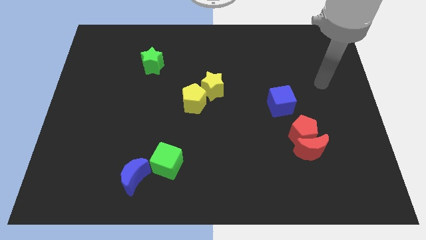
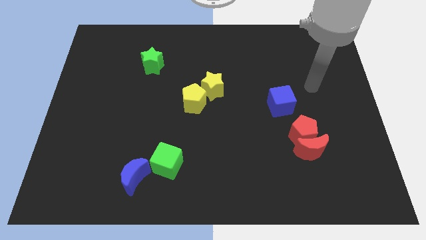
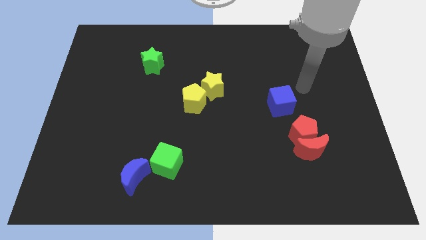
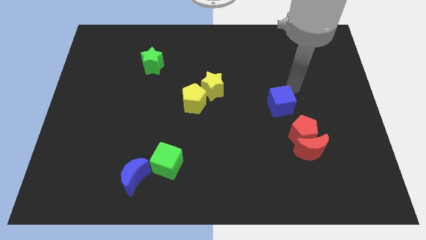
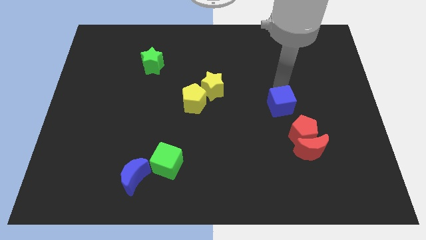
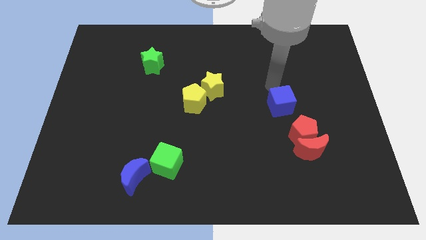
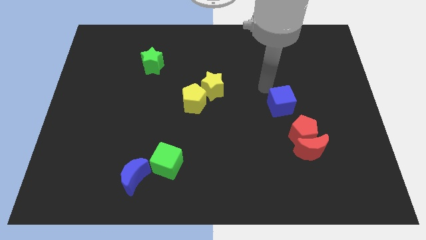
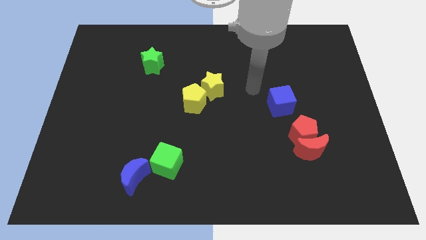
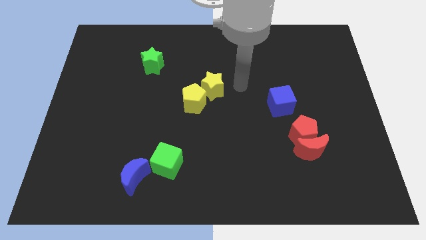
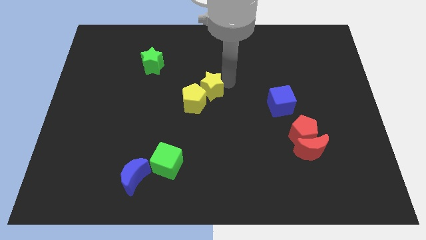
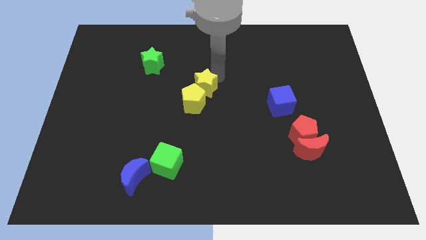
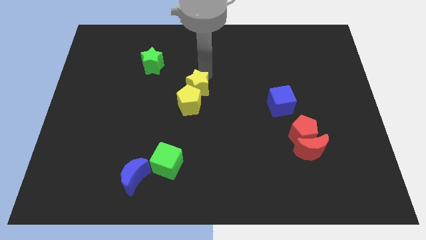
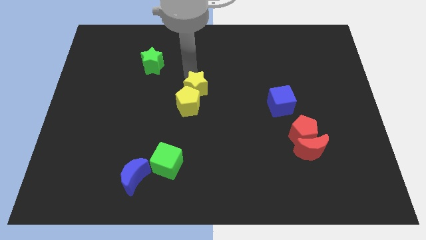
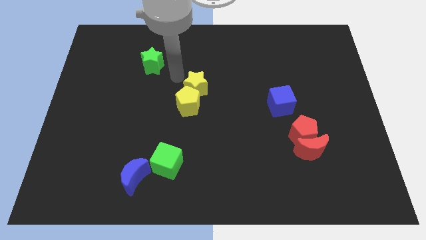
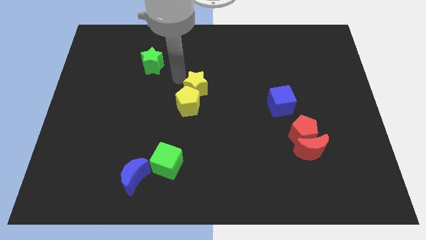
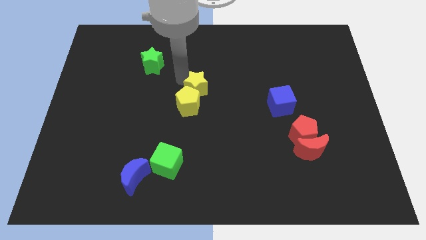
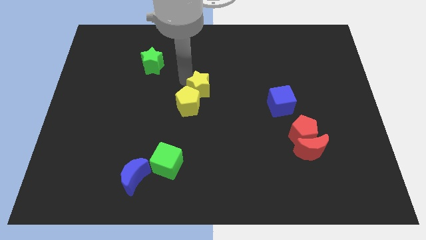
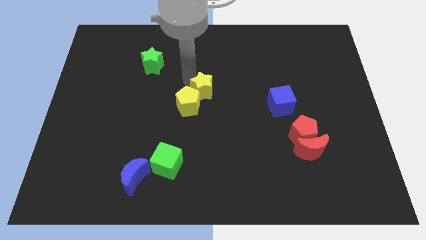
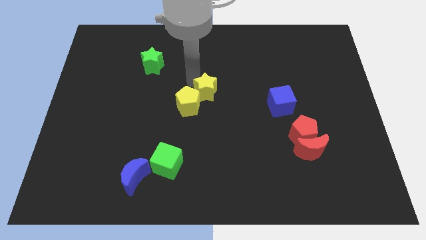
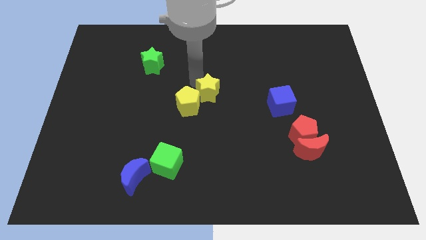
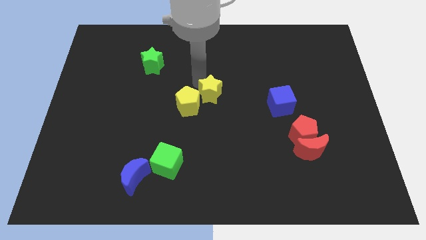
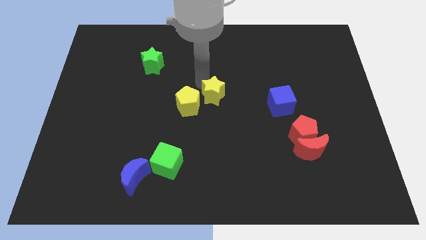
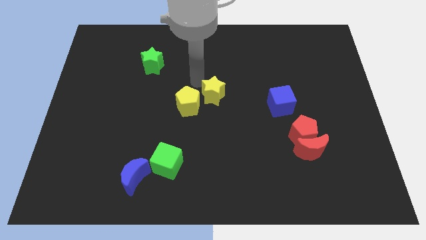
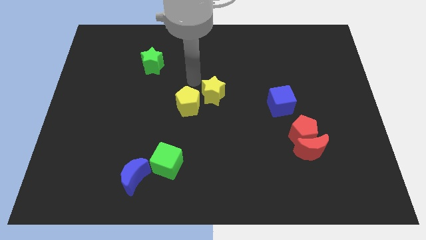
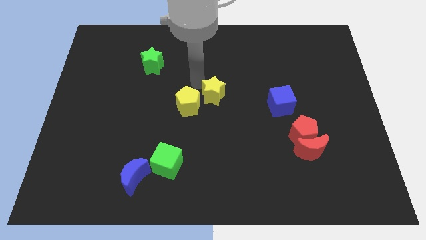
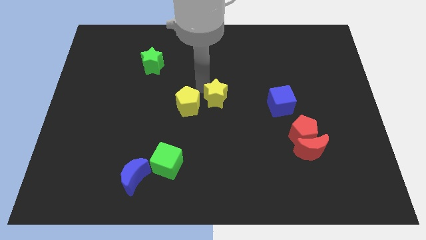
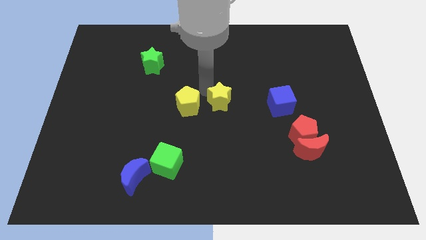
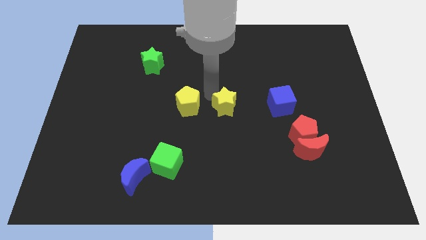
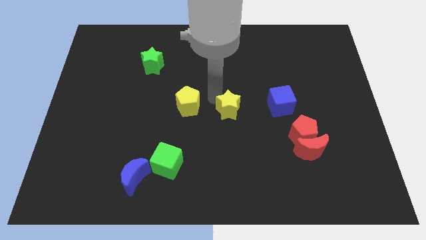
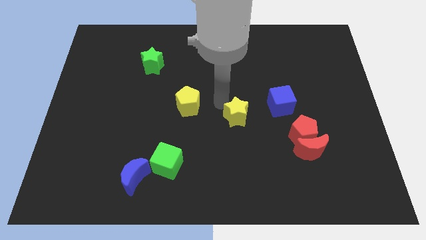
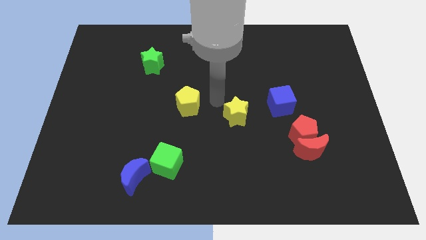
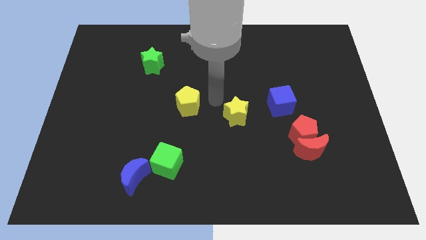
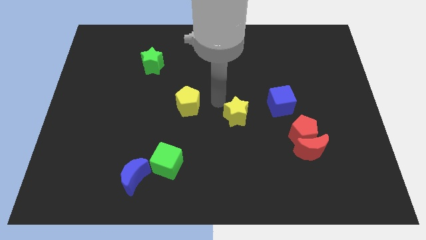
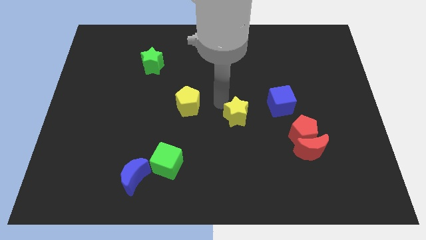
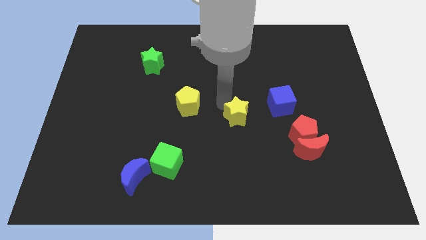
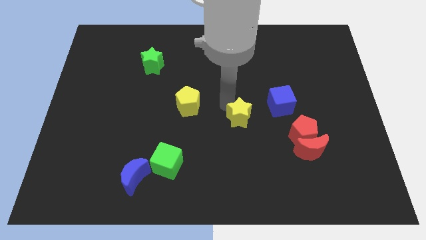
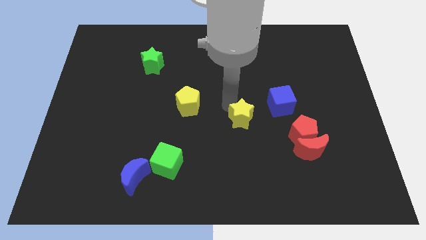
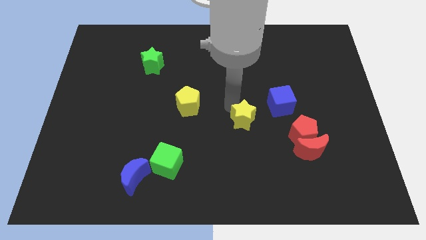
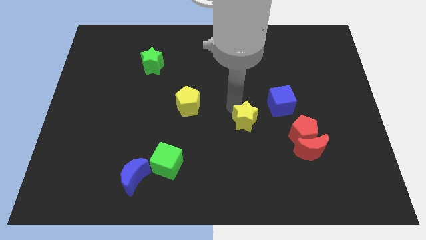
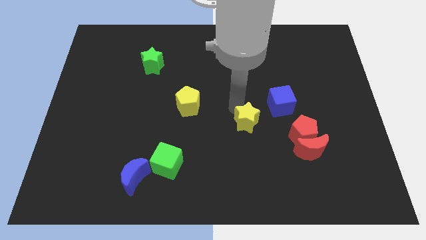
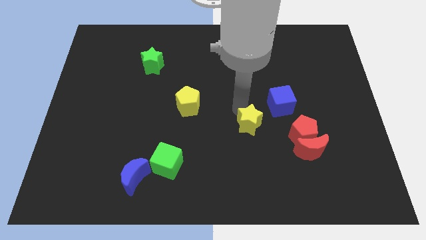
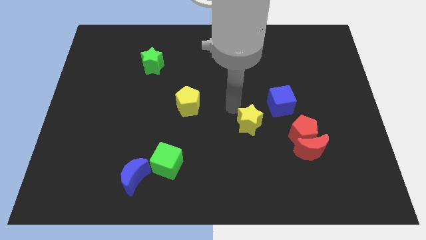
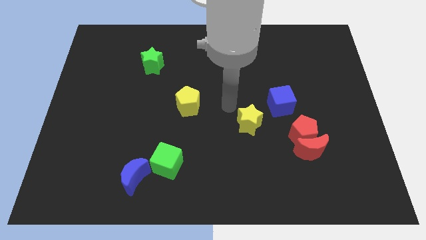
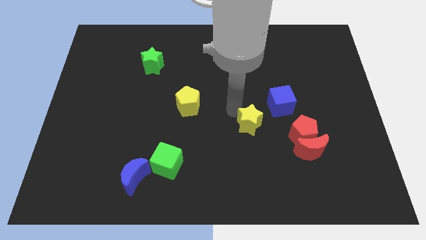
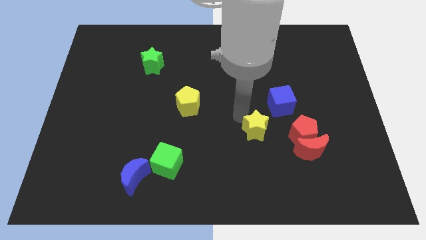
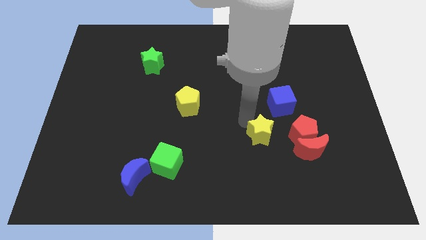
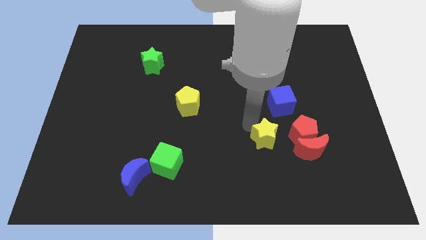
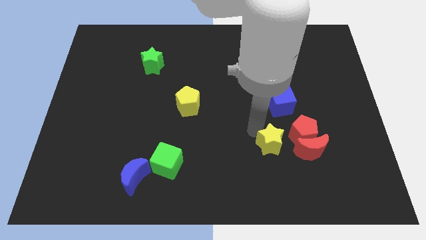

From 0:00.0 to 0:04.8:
move the yellow star downwards and right

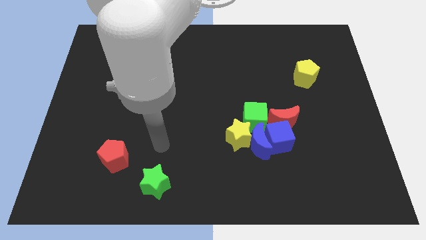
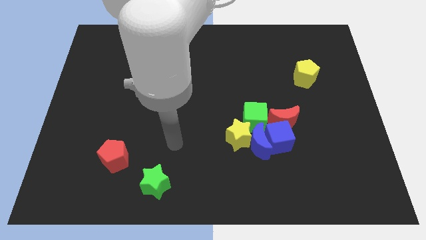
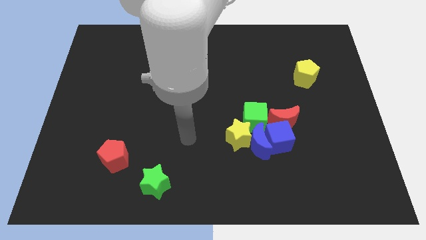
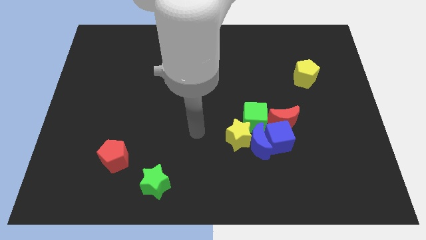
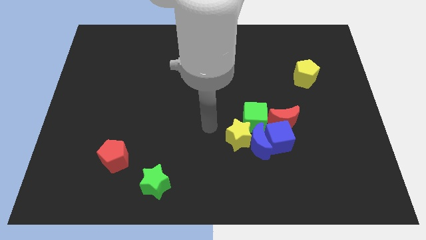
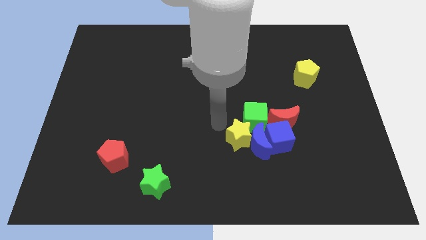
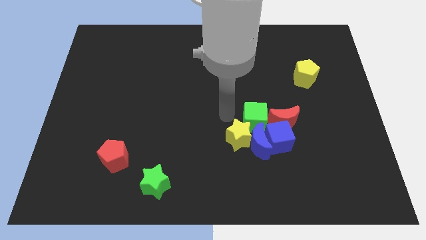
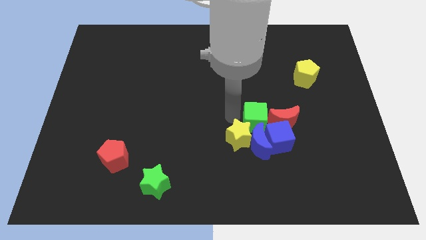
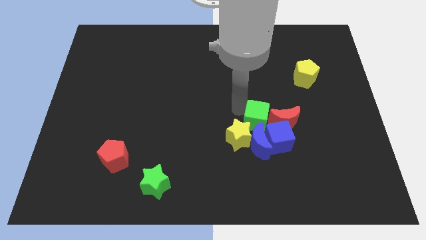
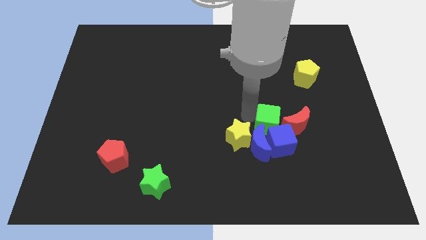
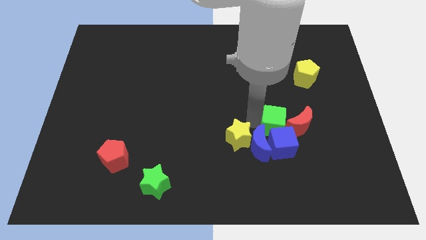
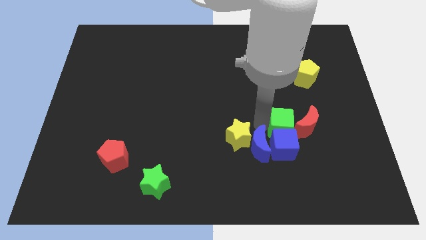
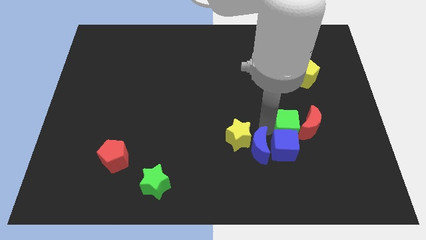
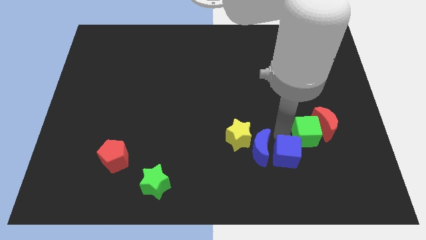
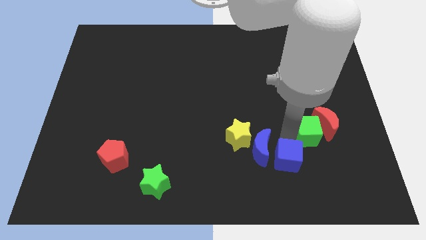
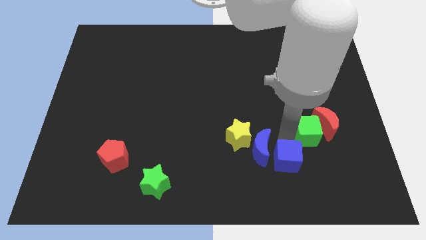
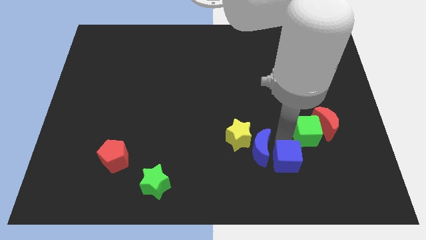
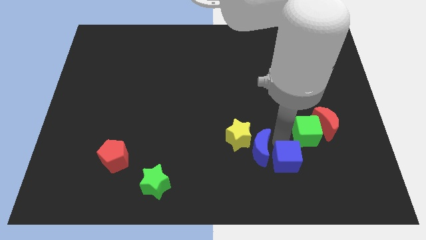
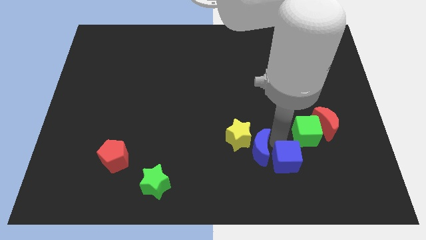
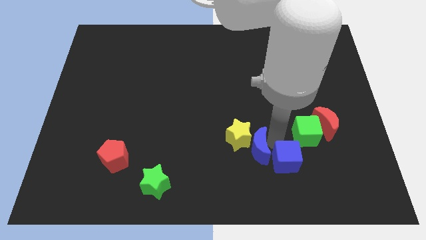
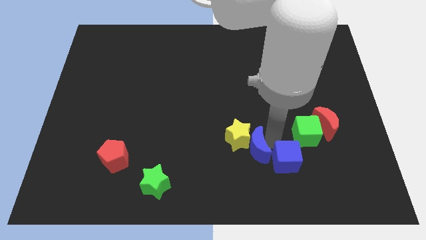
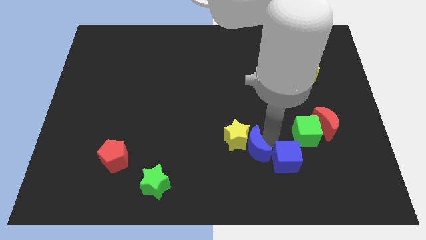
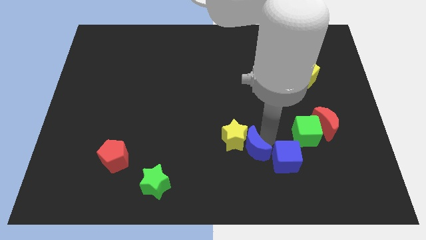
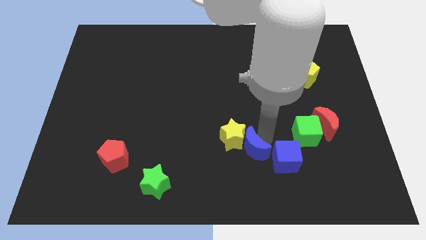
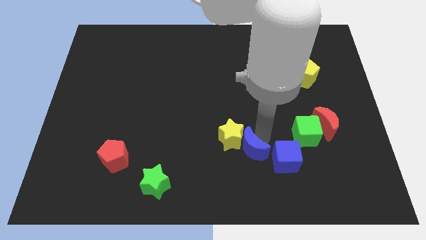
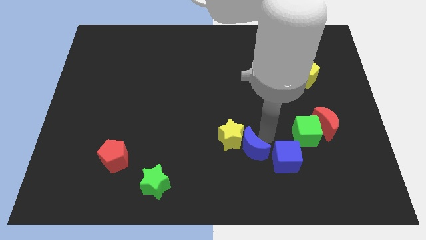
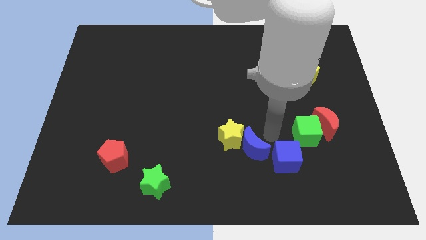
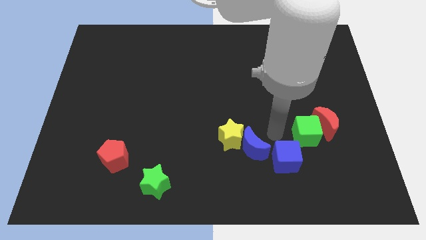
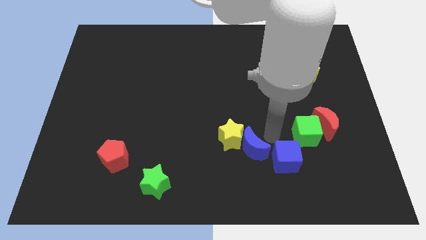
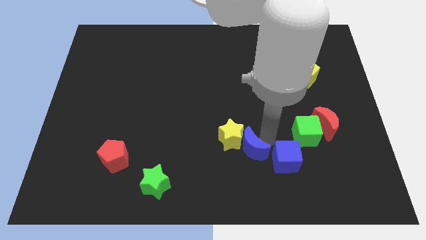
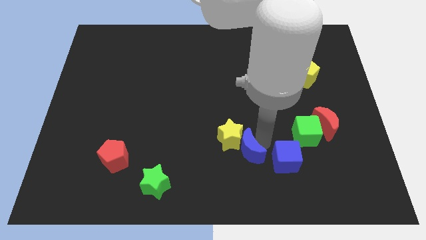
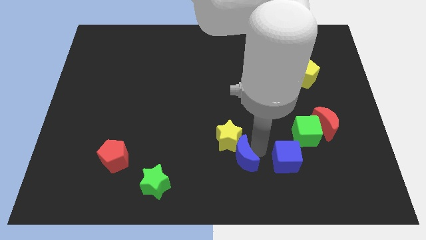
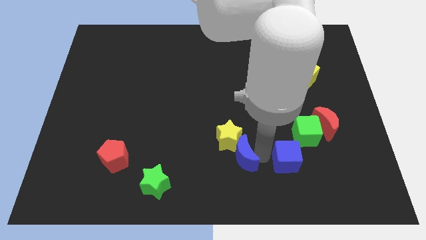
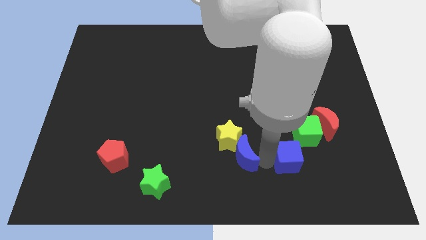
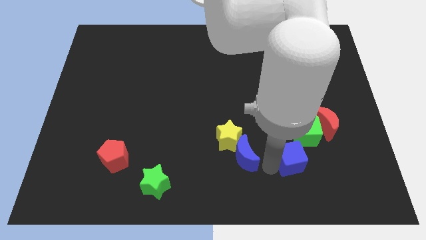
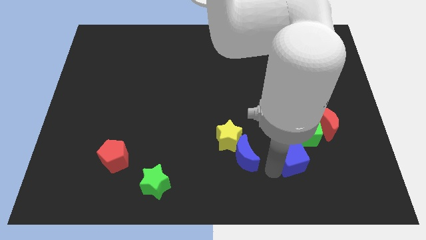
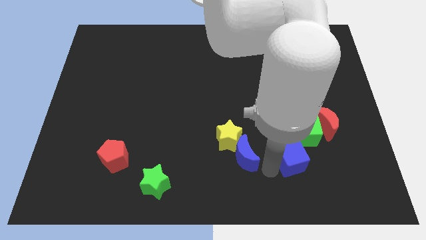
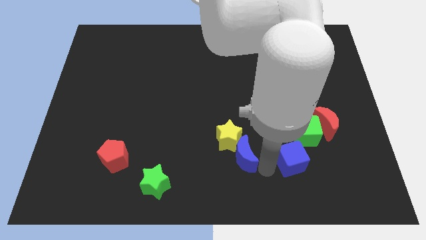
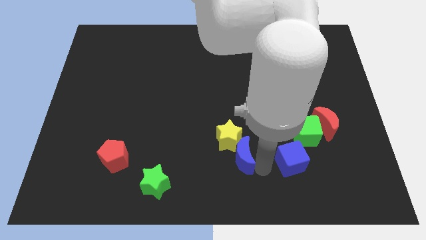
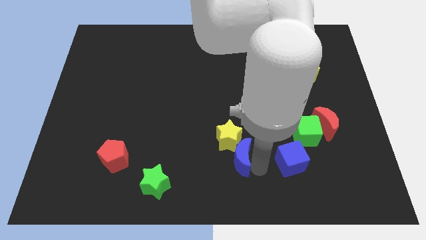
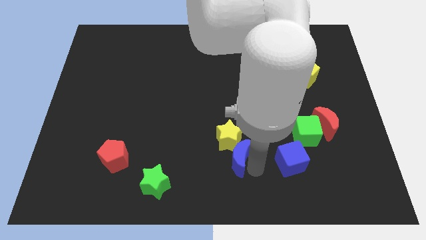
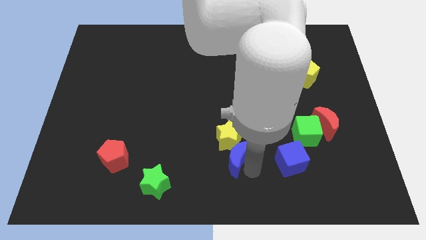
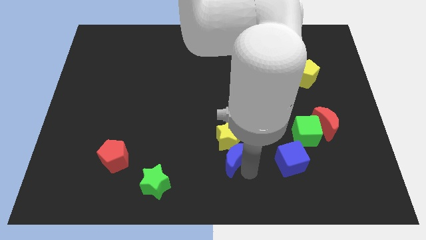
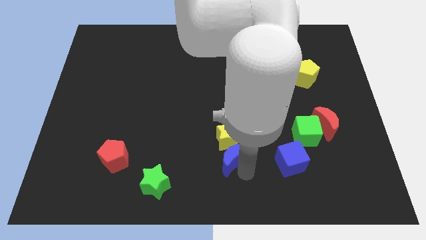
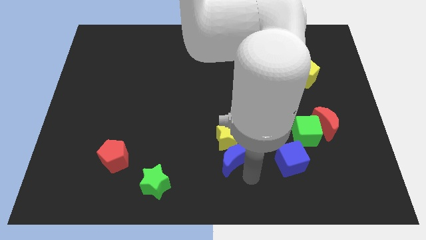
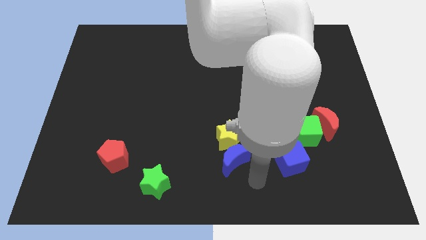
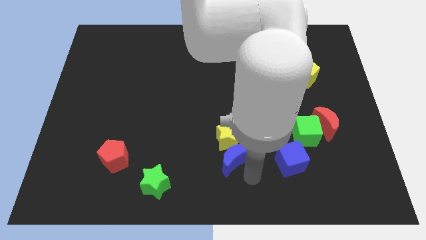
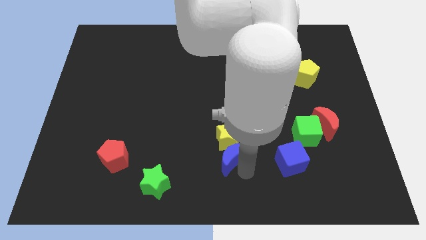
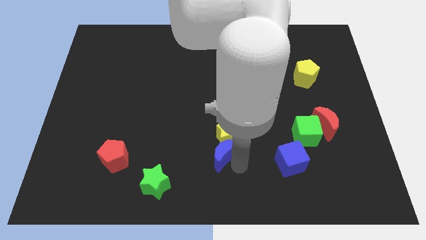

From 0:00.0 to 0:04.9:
slide the blue moon a little bit to the left
